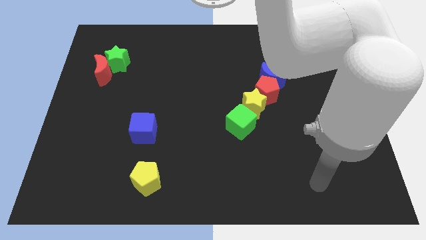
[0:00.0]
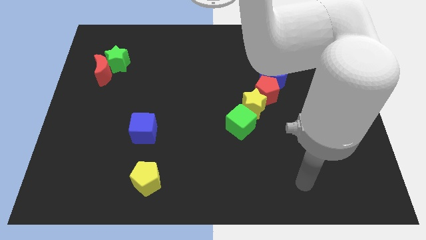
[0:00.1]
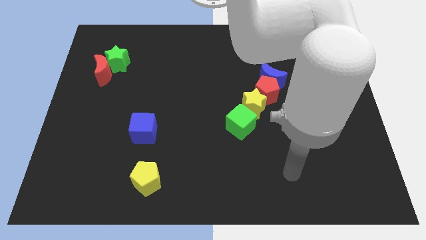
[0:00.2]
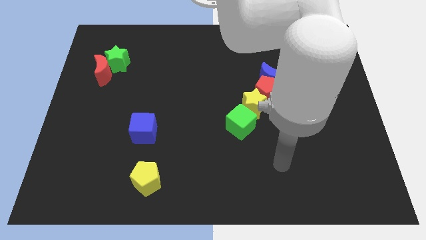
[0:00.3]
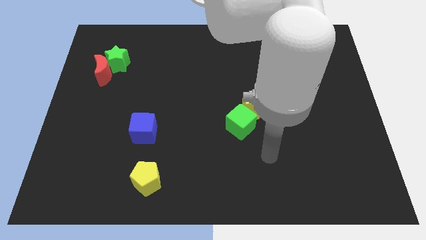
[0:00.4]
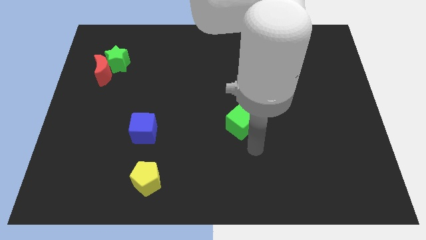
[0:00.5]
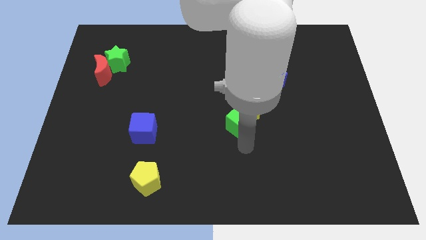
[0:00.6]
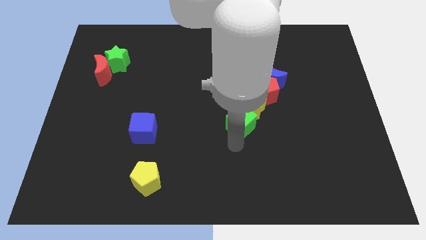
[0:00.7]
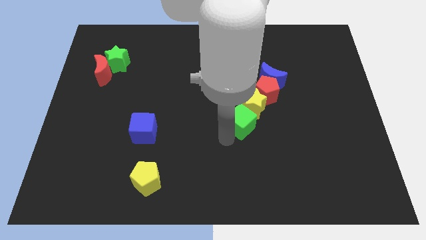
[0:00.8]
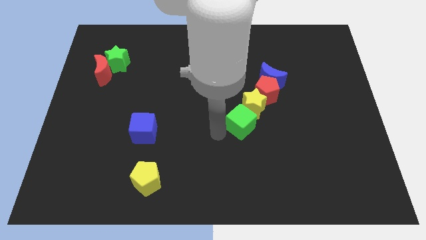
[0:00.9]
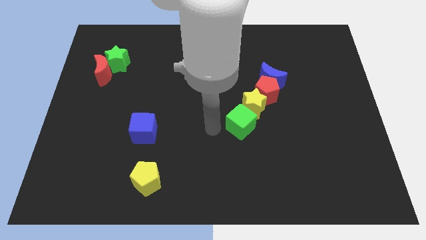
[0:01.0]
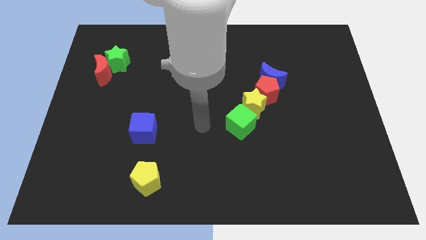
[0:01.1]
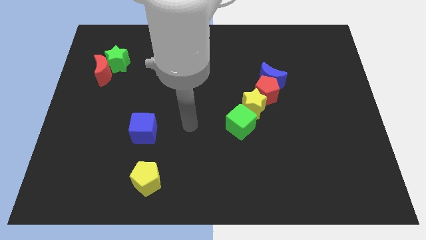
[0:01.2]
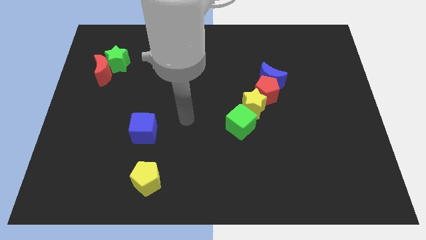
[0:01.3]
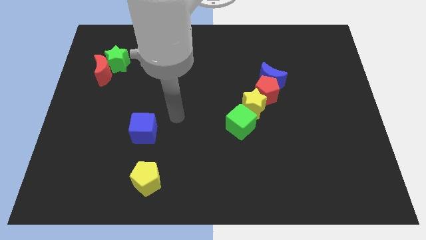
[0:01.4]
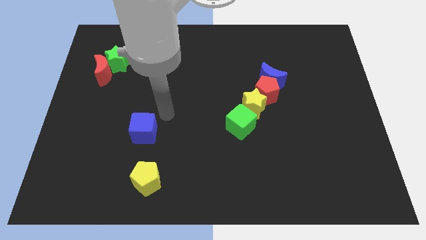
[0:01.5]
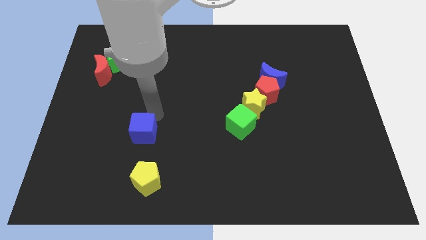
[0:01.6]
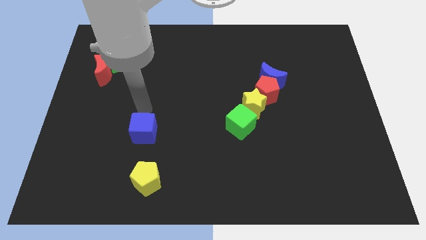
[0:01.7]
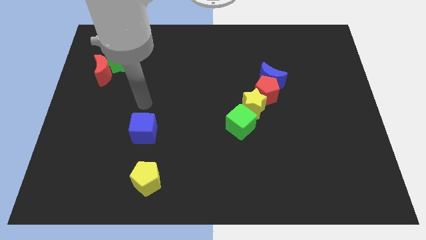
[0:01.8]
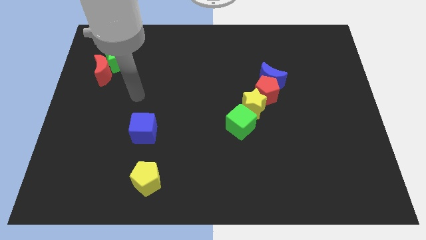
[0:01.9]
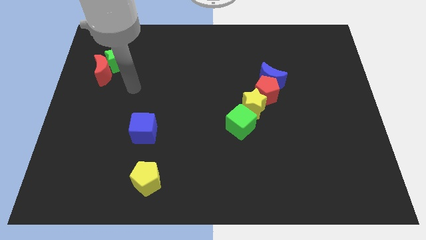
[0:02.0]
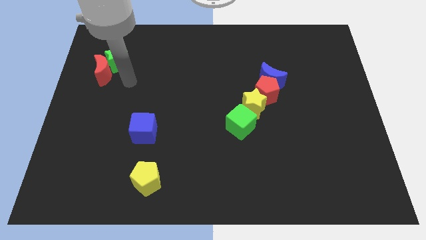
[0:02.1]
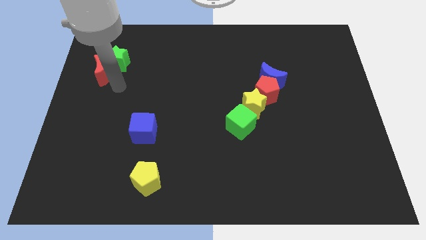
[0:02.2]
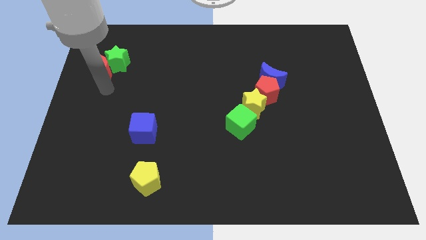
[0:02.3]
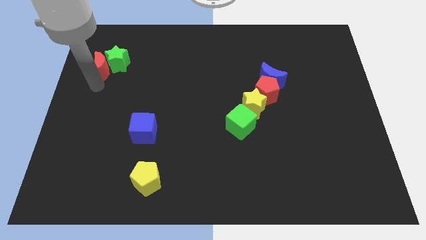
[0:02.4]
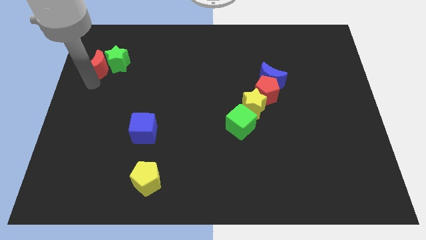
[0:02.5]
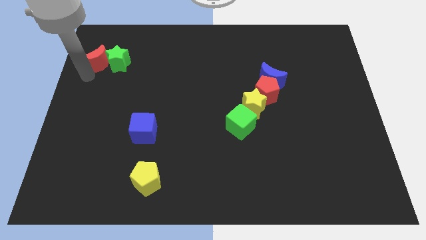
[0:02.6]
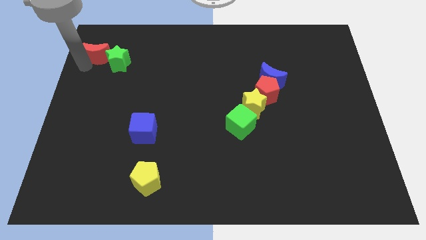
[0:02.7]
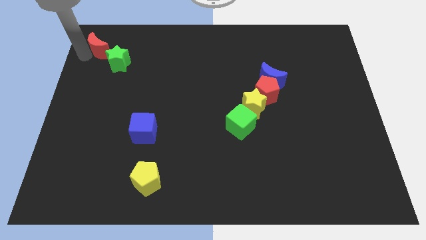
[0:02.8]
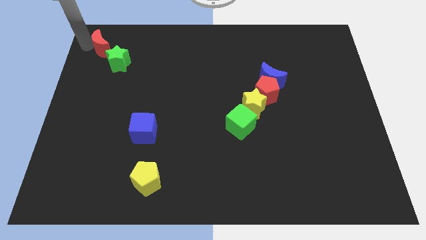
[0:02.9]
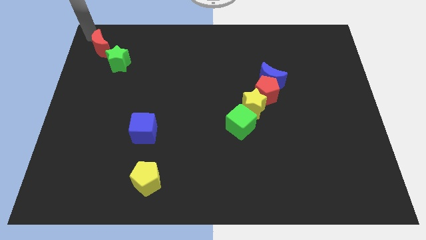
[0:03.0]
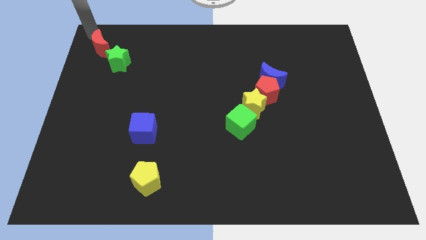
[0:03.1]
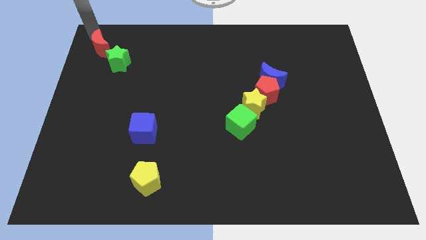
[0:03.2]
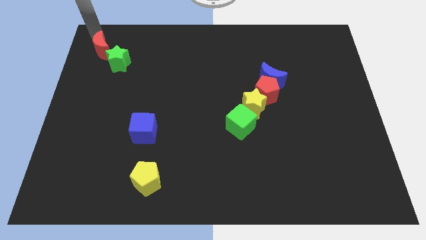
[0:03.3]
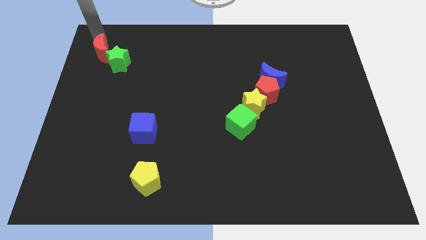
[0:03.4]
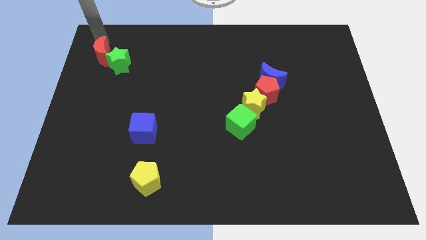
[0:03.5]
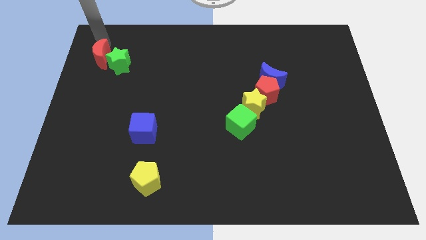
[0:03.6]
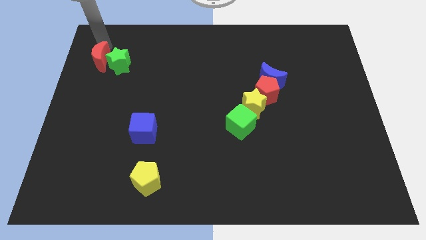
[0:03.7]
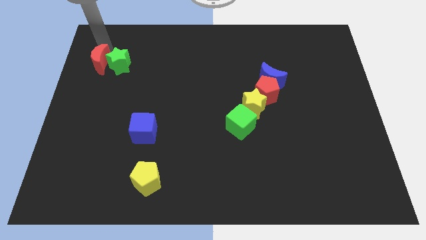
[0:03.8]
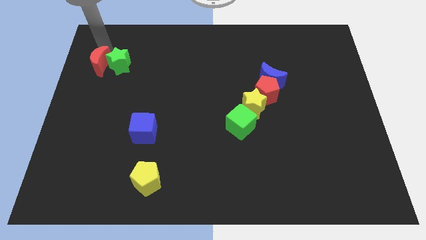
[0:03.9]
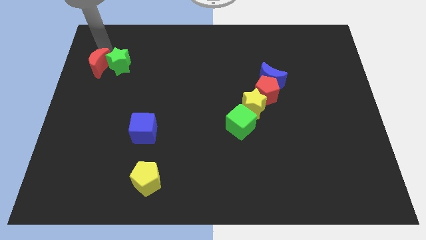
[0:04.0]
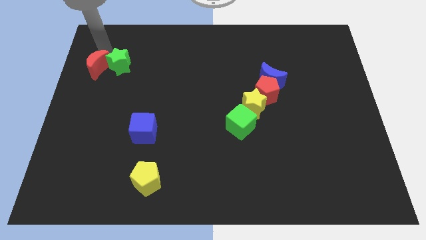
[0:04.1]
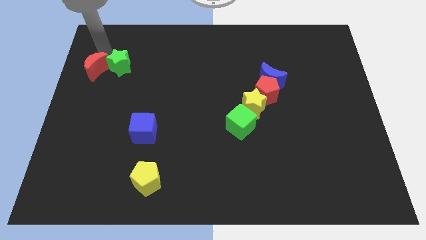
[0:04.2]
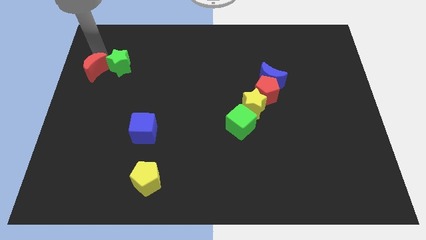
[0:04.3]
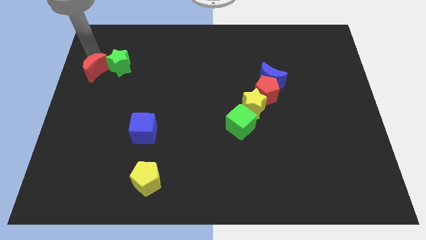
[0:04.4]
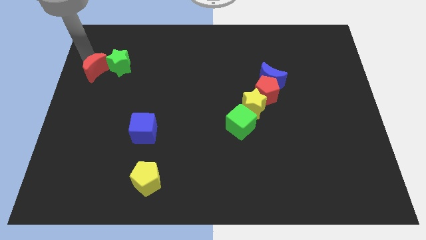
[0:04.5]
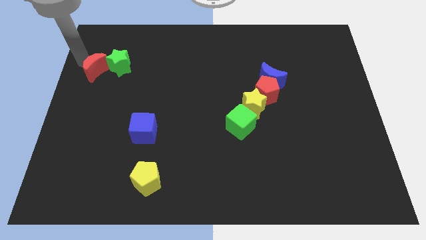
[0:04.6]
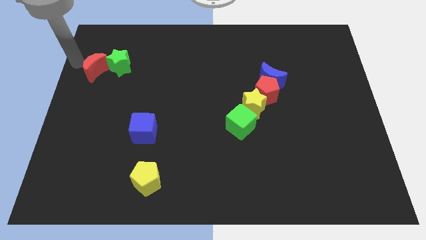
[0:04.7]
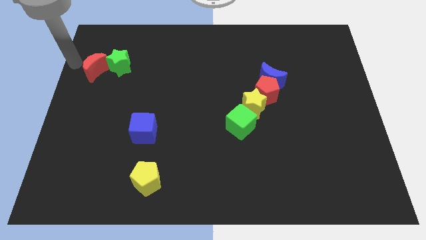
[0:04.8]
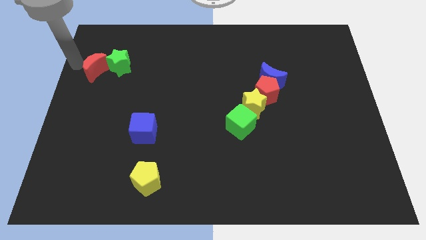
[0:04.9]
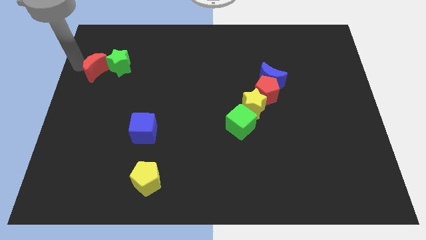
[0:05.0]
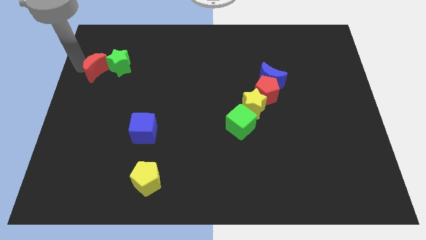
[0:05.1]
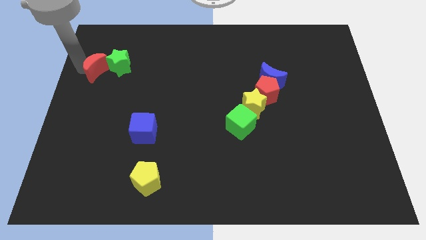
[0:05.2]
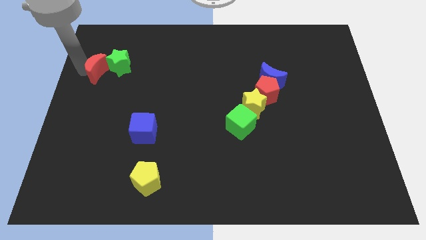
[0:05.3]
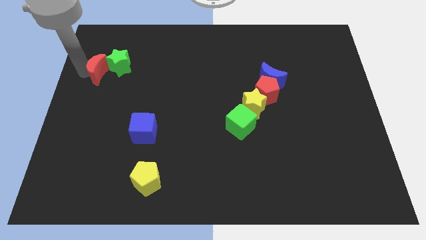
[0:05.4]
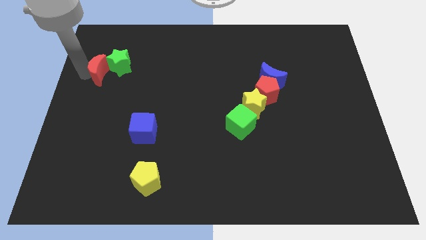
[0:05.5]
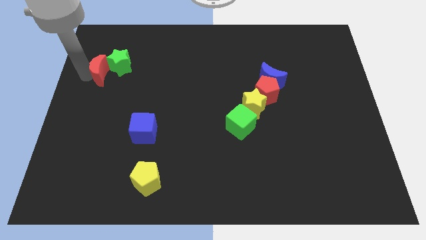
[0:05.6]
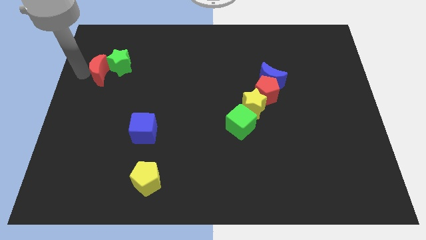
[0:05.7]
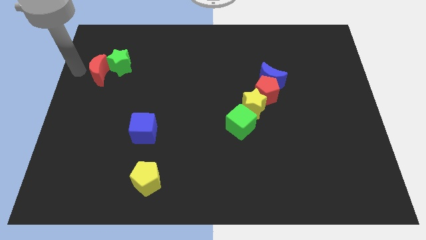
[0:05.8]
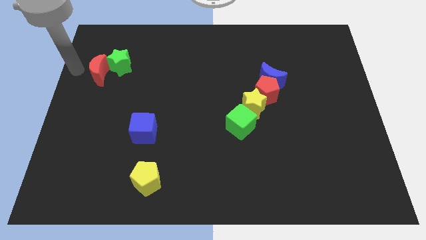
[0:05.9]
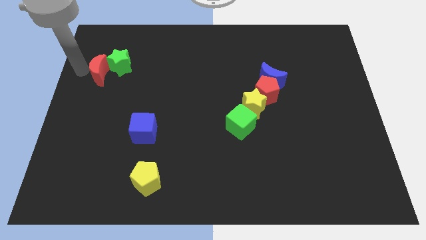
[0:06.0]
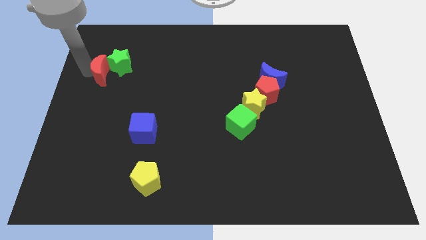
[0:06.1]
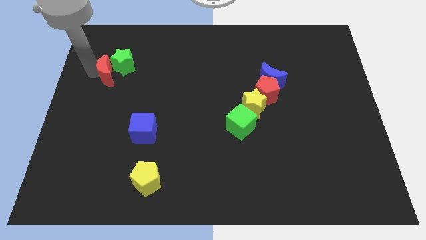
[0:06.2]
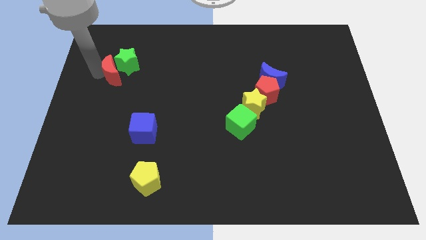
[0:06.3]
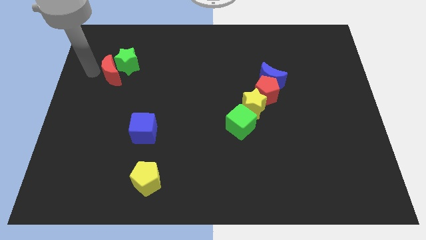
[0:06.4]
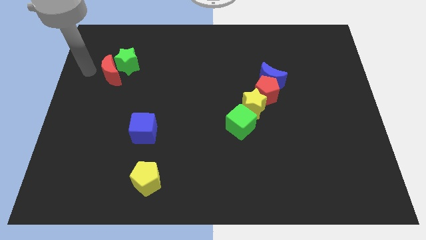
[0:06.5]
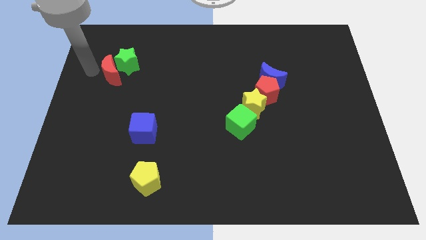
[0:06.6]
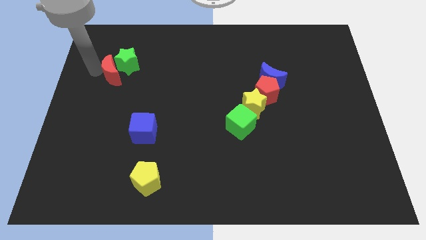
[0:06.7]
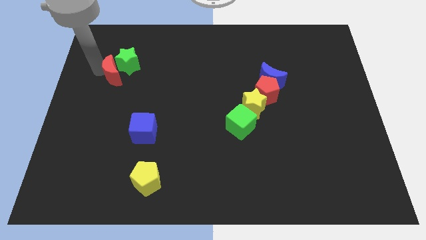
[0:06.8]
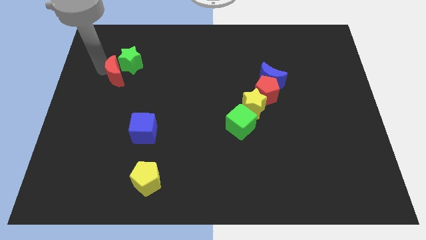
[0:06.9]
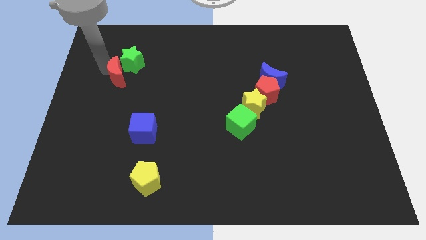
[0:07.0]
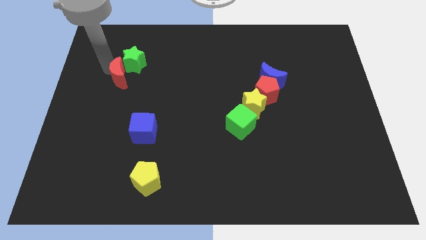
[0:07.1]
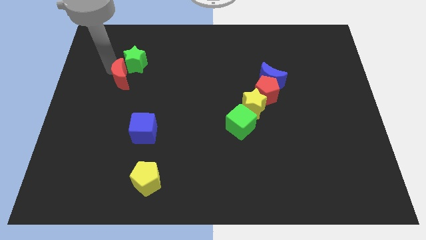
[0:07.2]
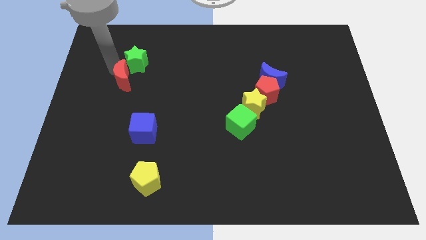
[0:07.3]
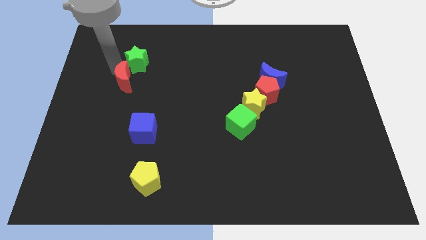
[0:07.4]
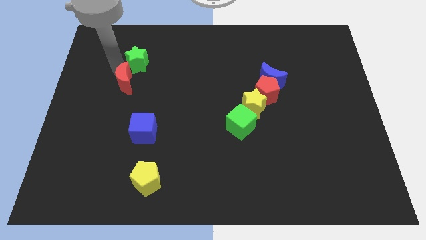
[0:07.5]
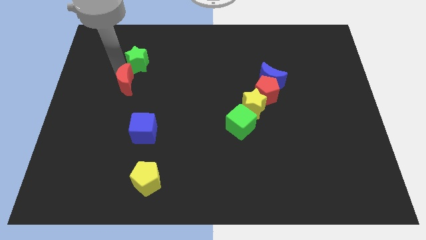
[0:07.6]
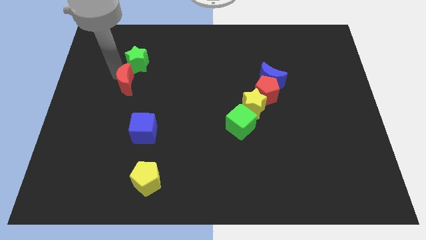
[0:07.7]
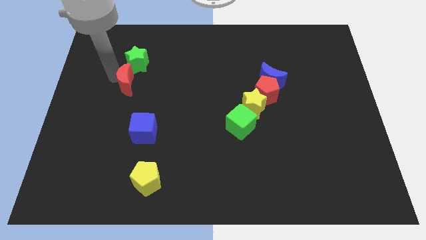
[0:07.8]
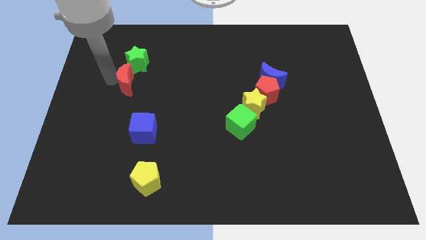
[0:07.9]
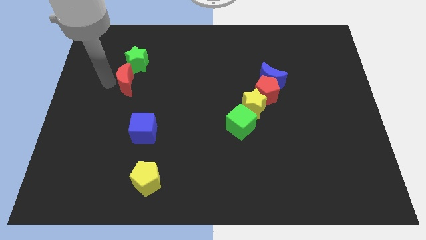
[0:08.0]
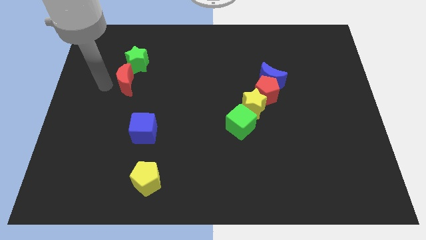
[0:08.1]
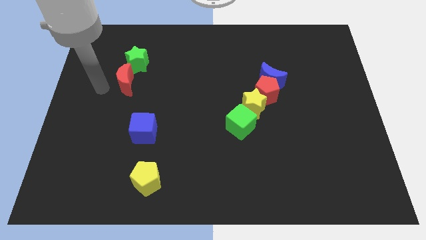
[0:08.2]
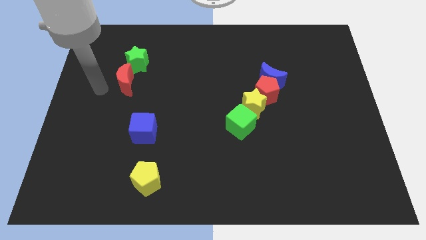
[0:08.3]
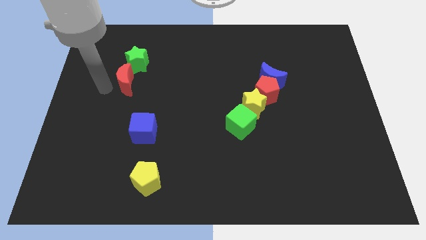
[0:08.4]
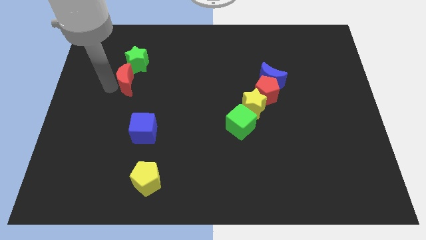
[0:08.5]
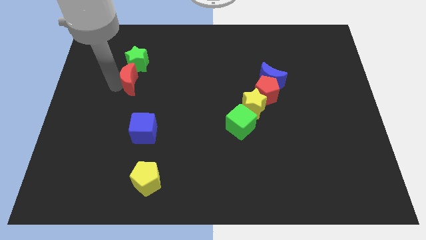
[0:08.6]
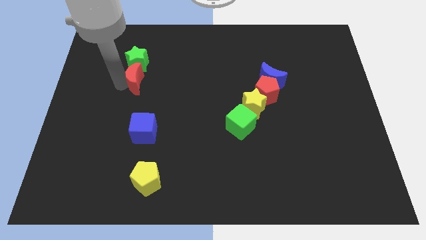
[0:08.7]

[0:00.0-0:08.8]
move the red moon to the right a little bit
